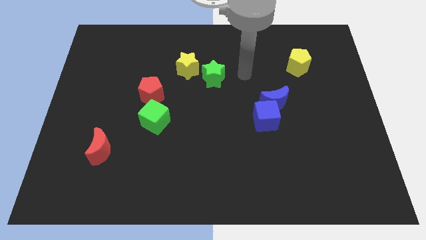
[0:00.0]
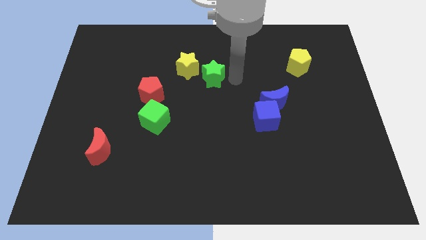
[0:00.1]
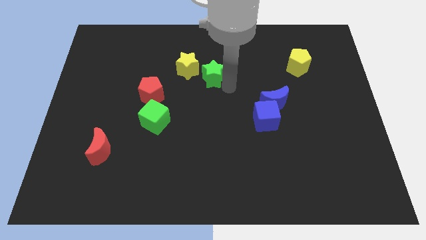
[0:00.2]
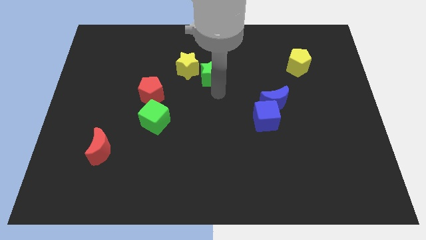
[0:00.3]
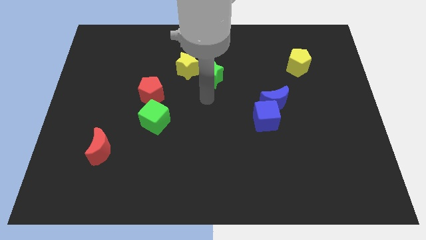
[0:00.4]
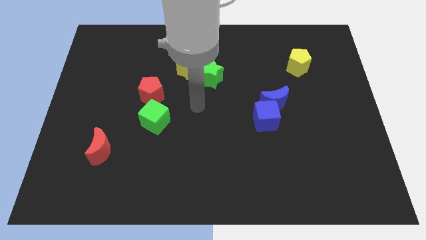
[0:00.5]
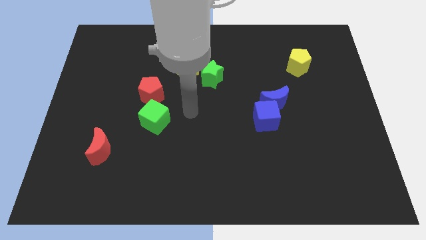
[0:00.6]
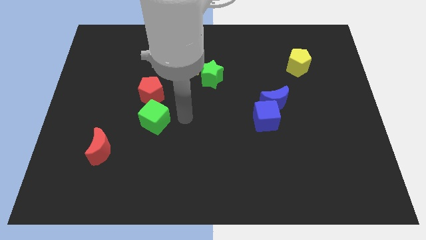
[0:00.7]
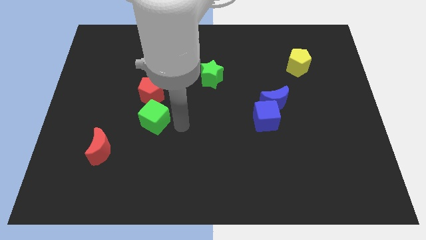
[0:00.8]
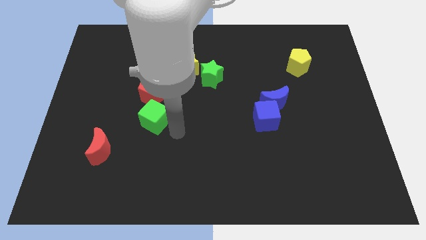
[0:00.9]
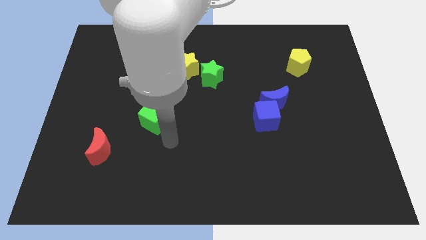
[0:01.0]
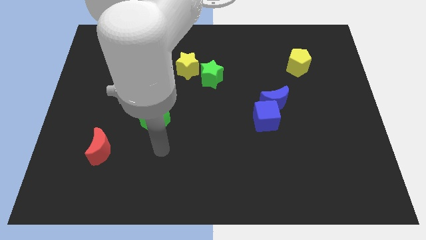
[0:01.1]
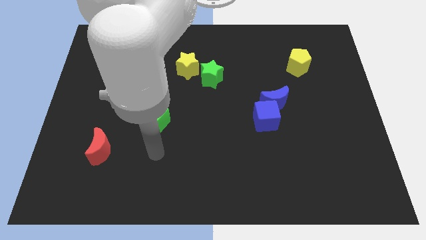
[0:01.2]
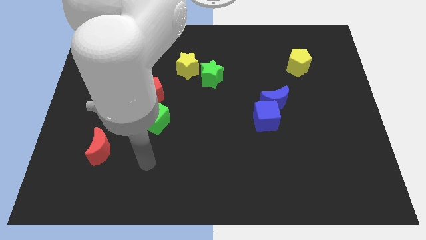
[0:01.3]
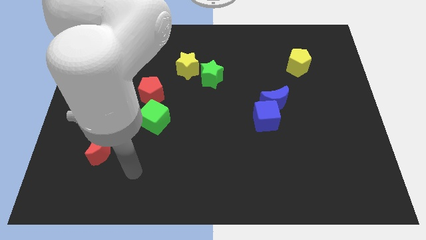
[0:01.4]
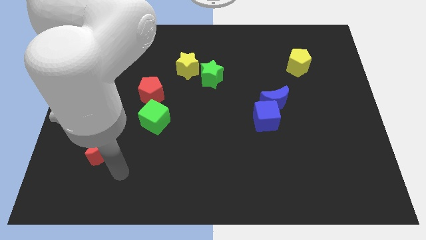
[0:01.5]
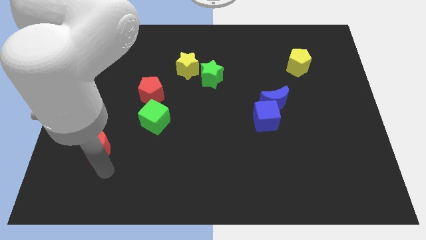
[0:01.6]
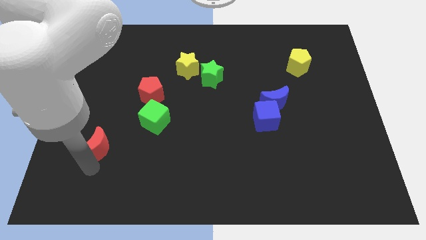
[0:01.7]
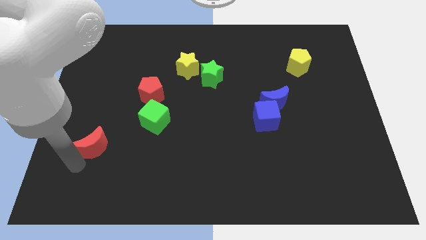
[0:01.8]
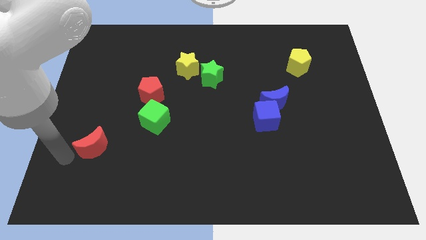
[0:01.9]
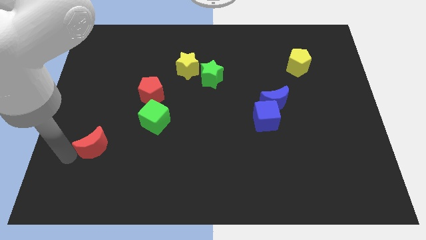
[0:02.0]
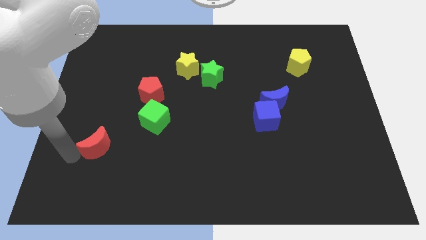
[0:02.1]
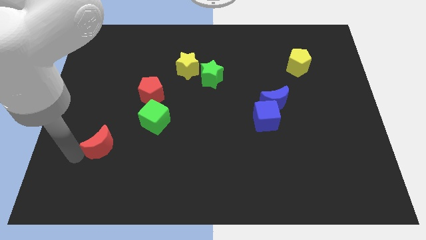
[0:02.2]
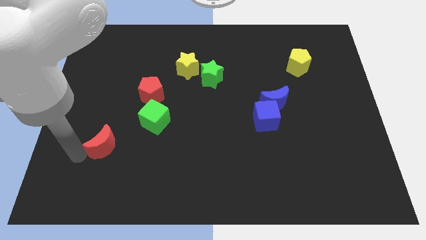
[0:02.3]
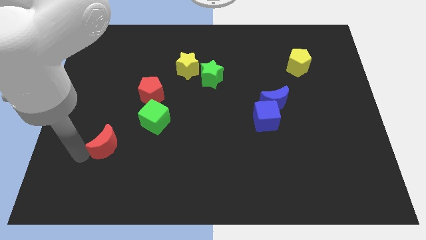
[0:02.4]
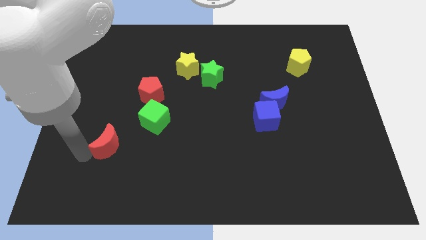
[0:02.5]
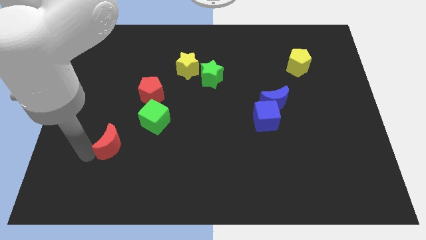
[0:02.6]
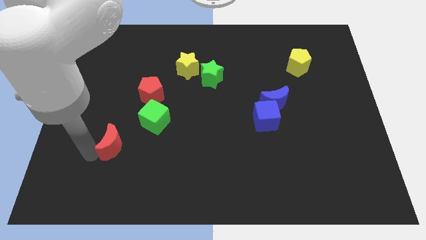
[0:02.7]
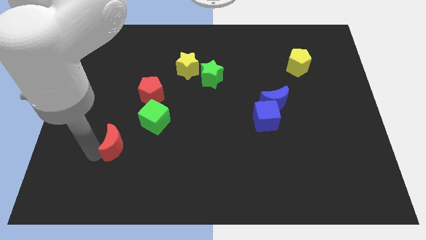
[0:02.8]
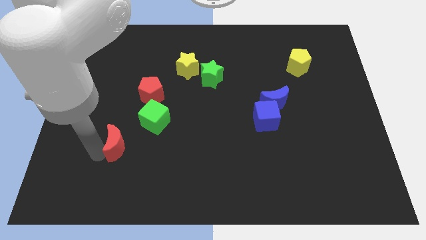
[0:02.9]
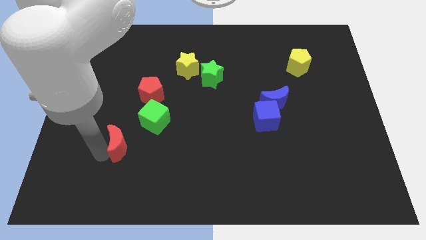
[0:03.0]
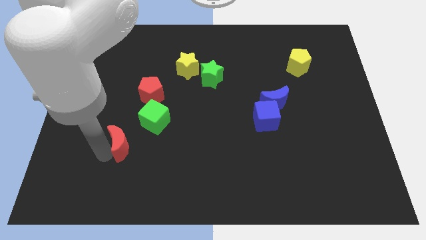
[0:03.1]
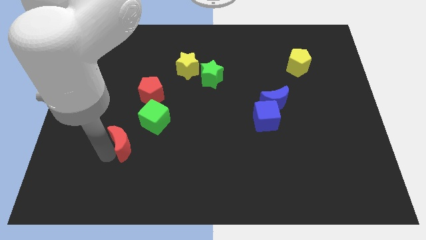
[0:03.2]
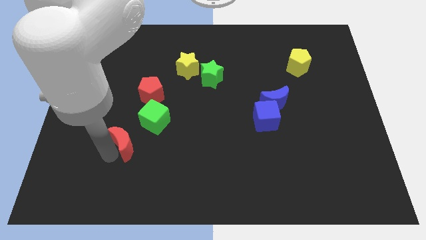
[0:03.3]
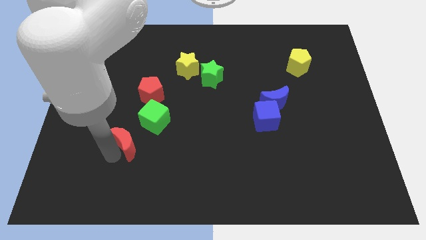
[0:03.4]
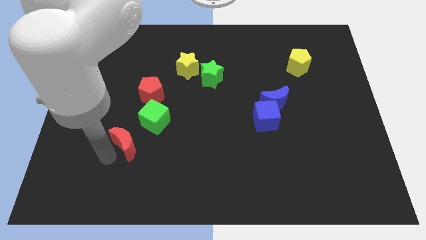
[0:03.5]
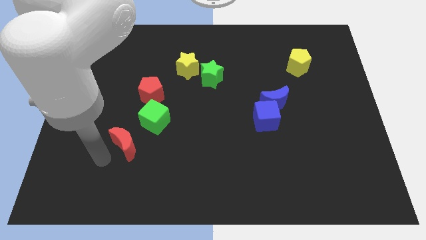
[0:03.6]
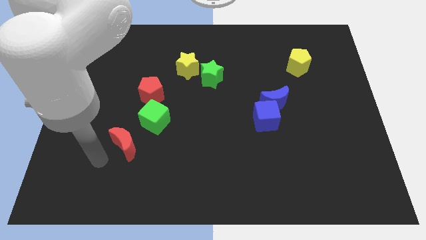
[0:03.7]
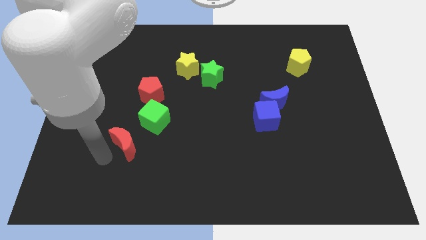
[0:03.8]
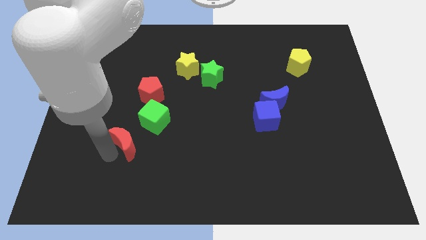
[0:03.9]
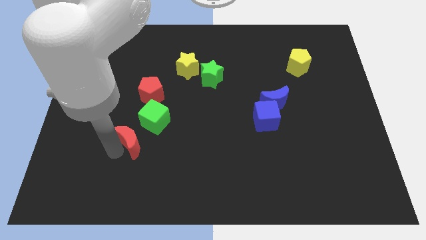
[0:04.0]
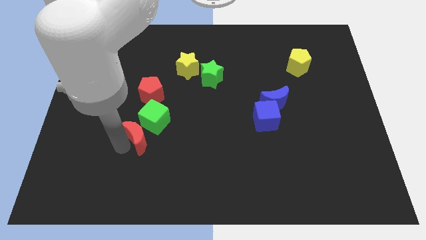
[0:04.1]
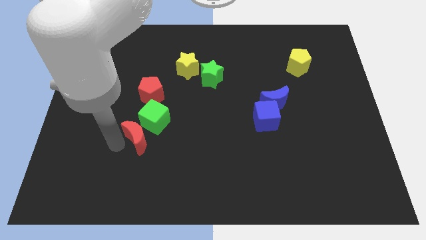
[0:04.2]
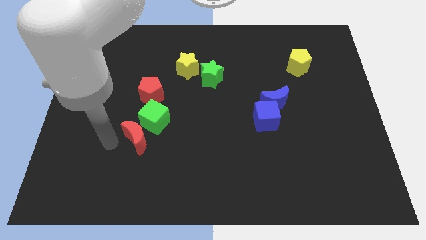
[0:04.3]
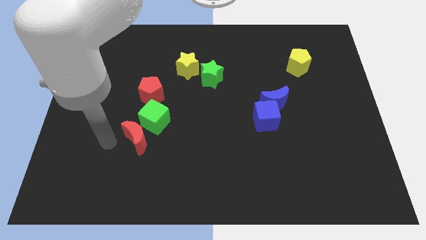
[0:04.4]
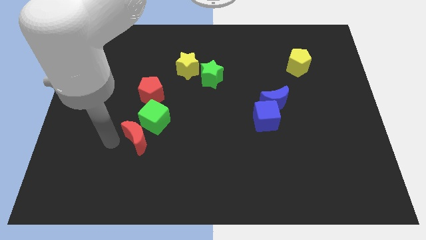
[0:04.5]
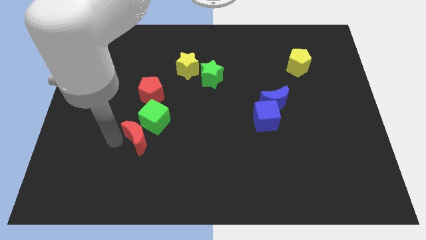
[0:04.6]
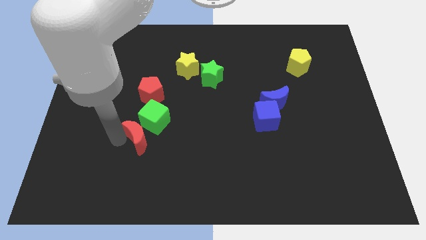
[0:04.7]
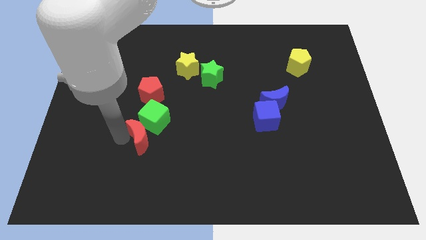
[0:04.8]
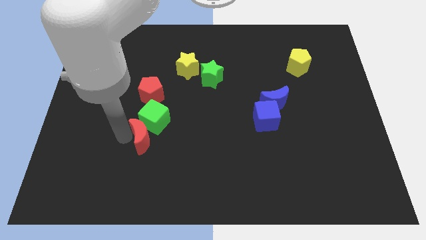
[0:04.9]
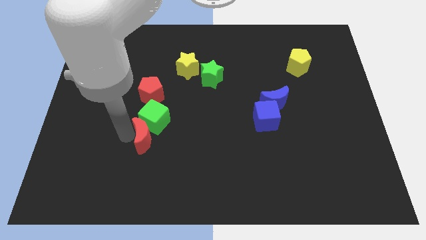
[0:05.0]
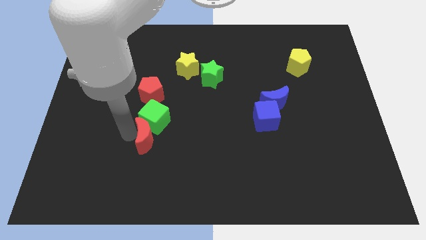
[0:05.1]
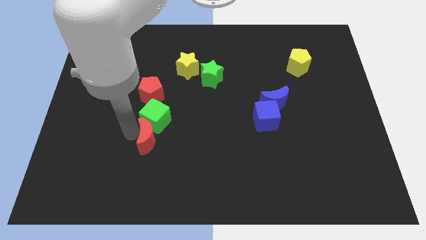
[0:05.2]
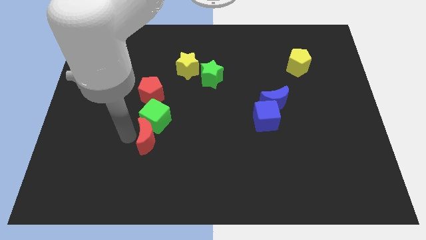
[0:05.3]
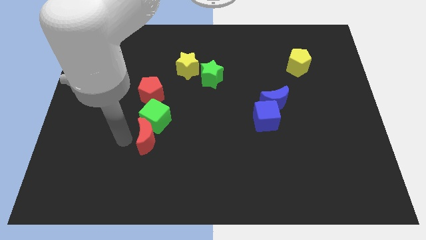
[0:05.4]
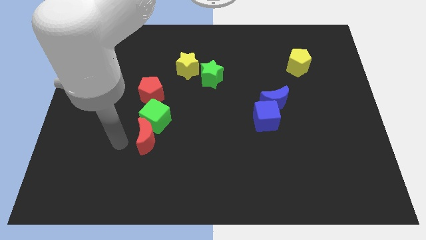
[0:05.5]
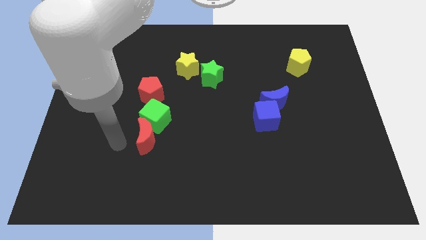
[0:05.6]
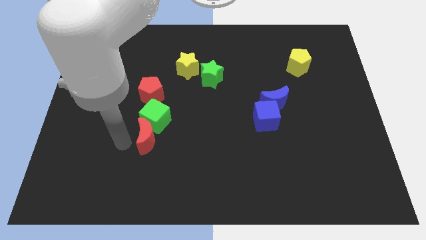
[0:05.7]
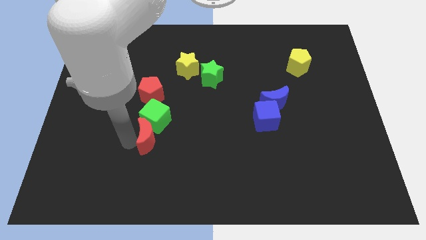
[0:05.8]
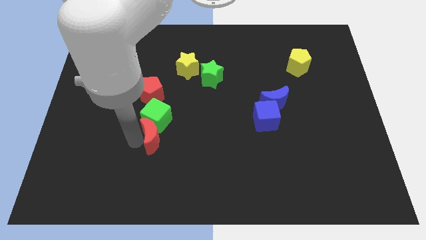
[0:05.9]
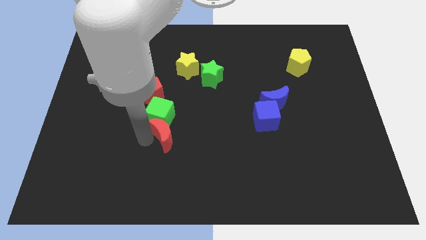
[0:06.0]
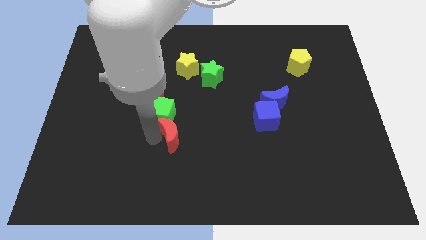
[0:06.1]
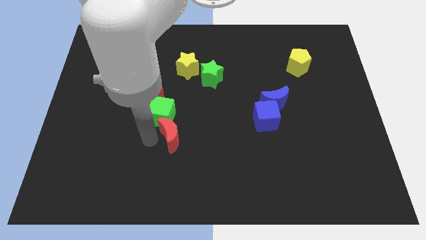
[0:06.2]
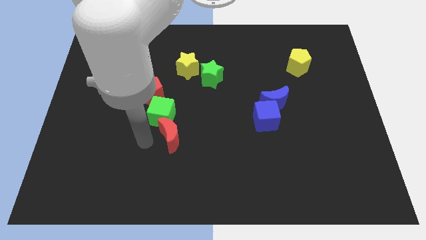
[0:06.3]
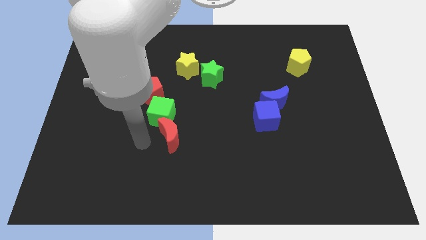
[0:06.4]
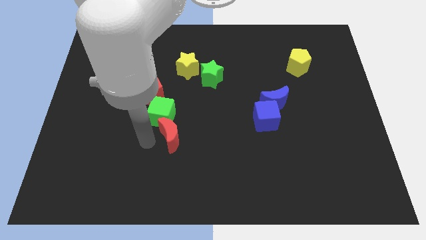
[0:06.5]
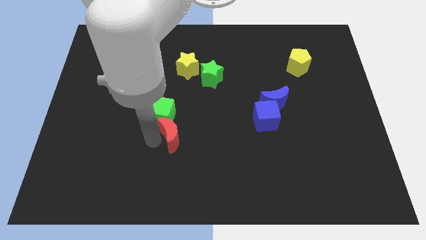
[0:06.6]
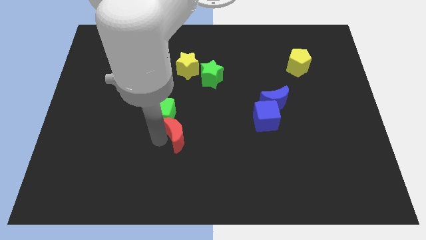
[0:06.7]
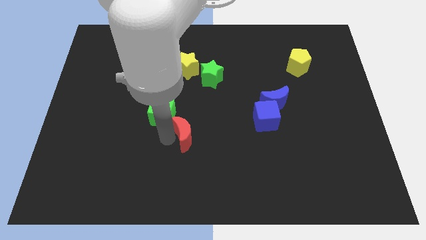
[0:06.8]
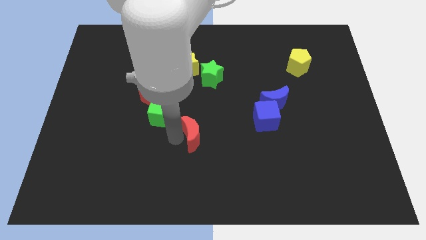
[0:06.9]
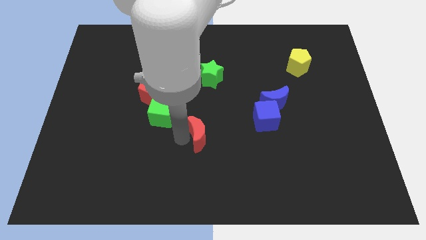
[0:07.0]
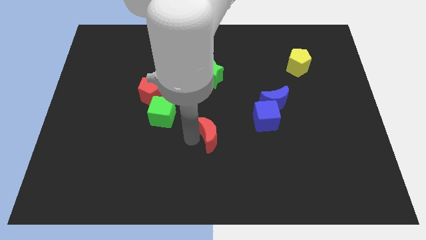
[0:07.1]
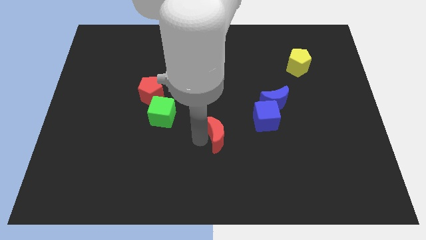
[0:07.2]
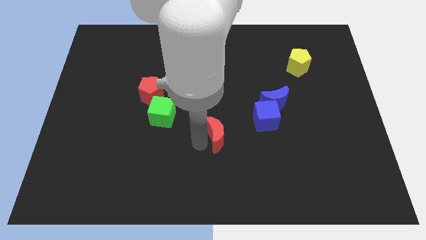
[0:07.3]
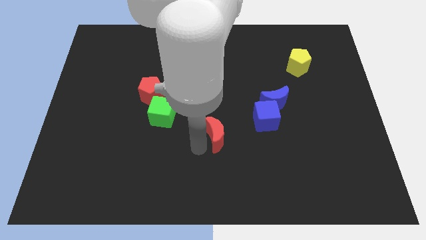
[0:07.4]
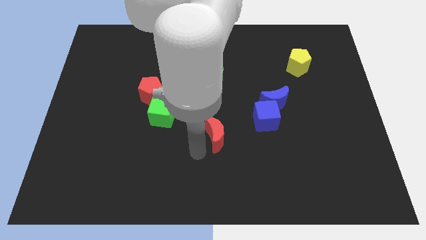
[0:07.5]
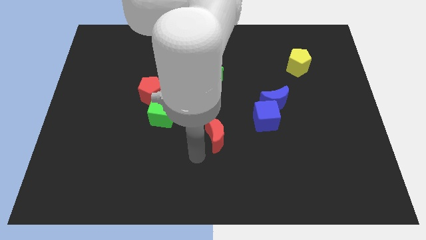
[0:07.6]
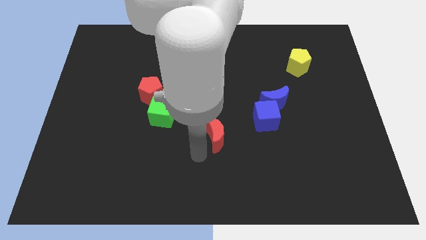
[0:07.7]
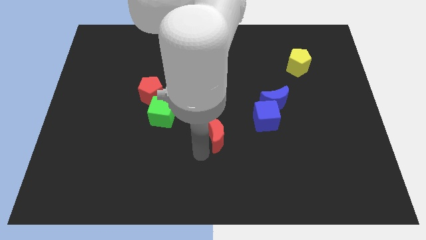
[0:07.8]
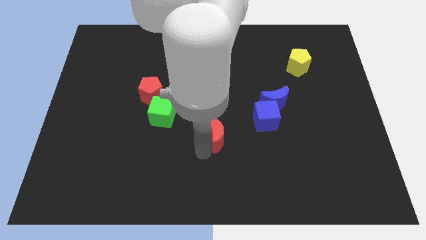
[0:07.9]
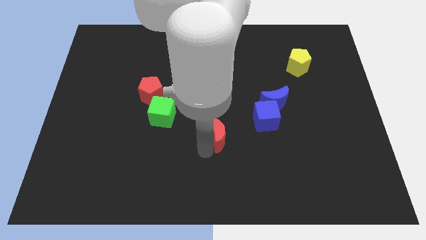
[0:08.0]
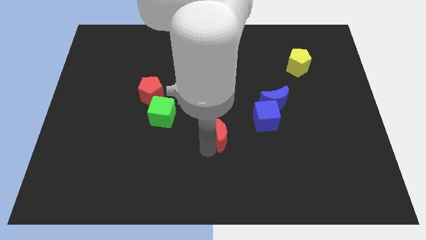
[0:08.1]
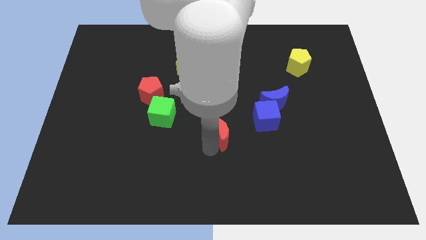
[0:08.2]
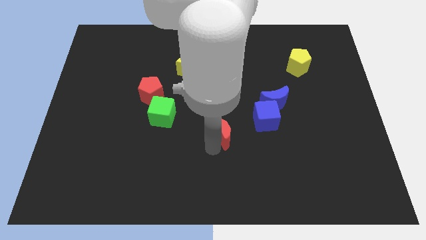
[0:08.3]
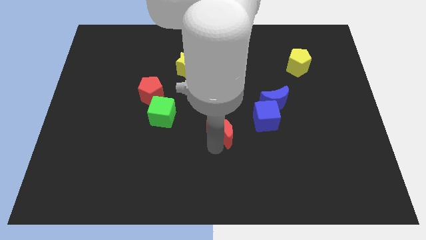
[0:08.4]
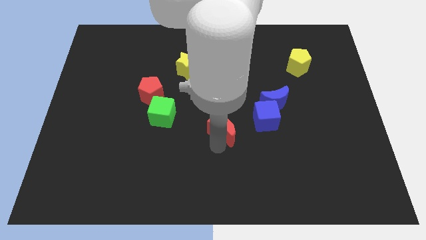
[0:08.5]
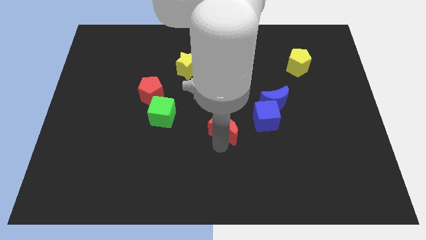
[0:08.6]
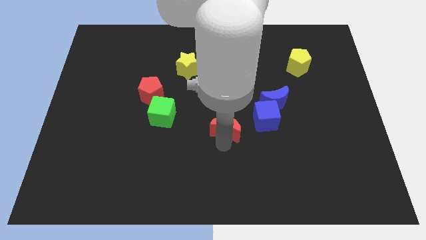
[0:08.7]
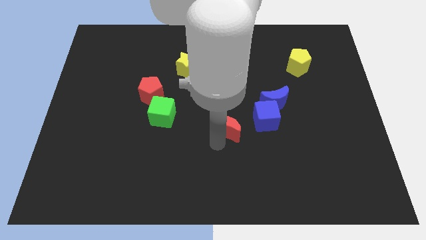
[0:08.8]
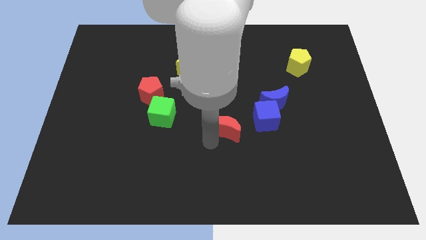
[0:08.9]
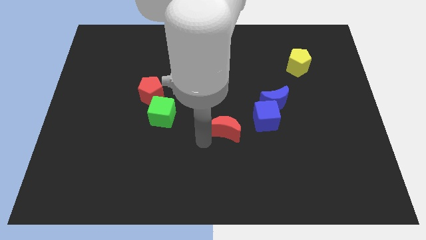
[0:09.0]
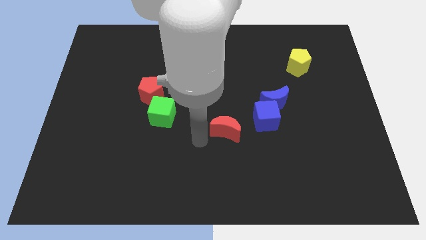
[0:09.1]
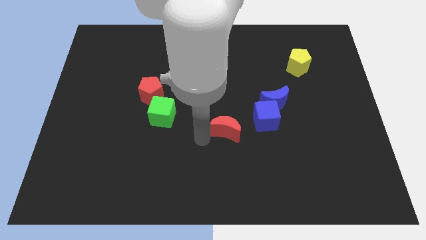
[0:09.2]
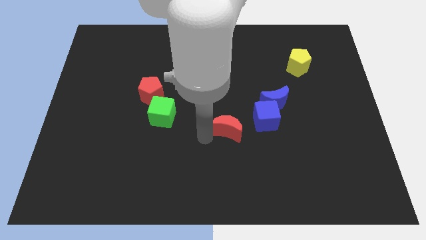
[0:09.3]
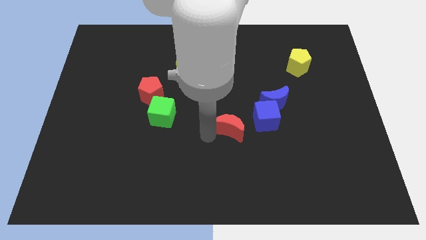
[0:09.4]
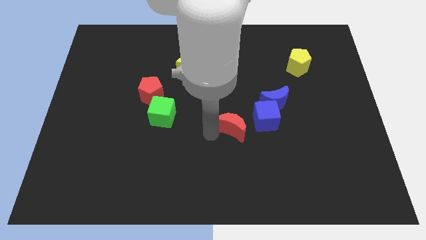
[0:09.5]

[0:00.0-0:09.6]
put the red moon diagonally down and to the left of the blue moon
